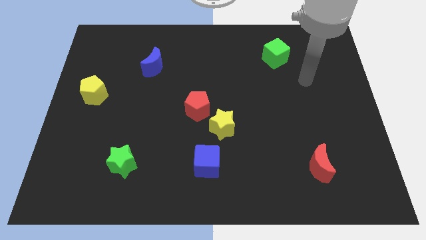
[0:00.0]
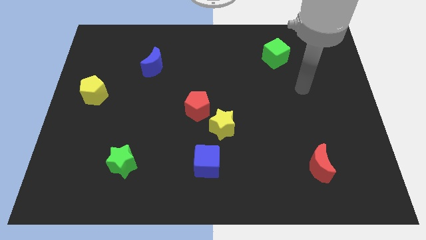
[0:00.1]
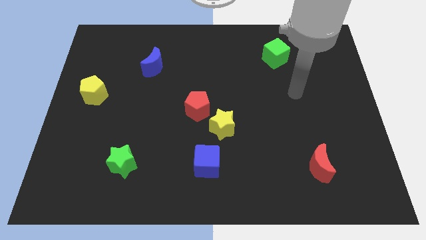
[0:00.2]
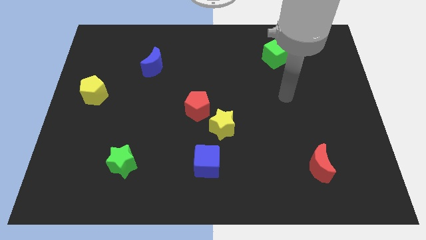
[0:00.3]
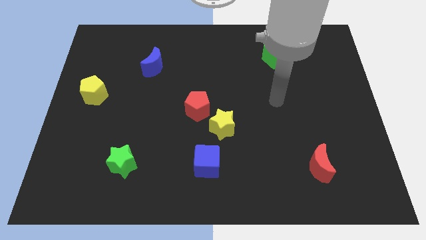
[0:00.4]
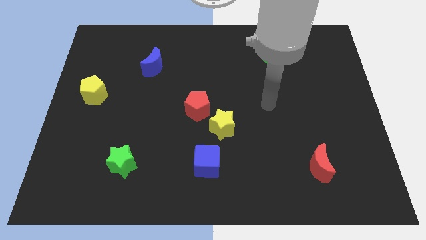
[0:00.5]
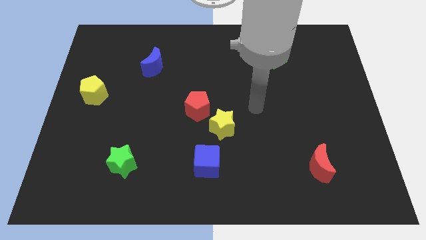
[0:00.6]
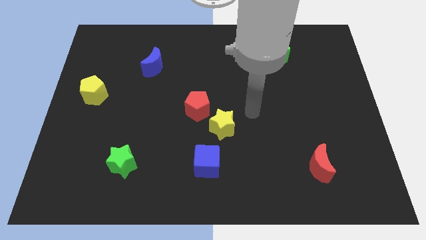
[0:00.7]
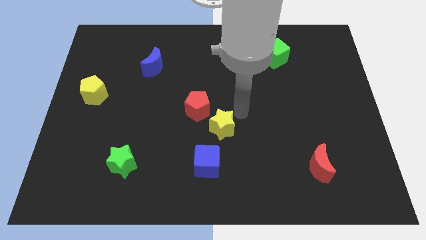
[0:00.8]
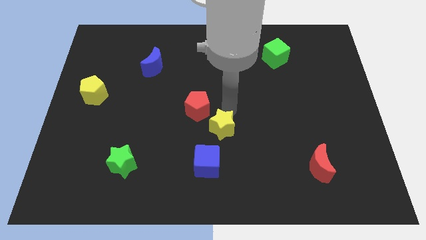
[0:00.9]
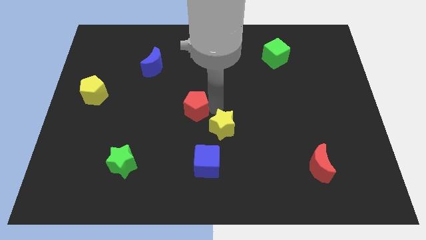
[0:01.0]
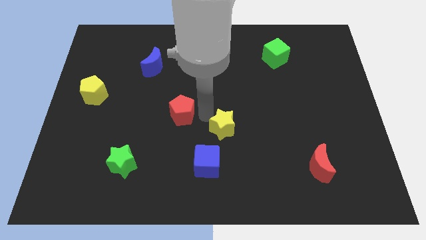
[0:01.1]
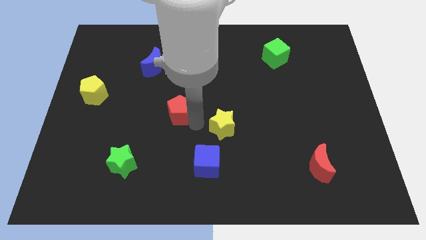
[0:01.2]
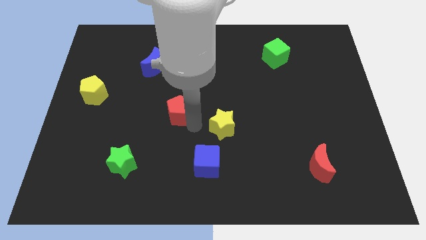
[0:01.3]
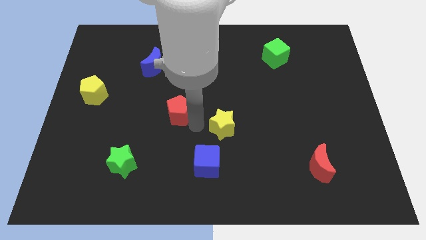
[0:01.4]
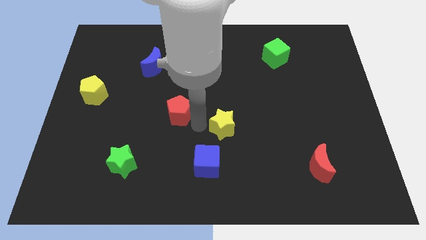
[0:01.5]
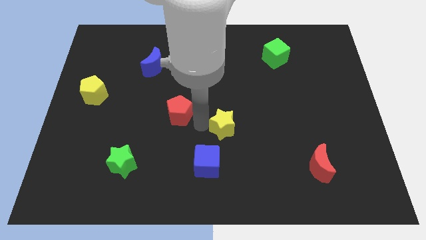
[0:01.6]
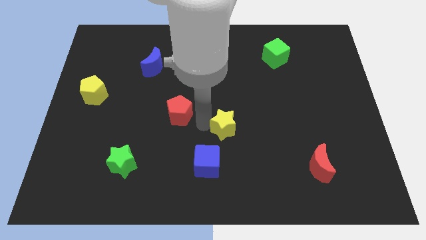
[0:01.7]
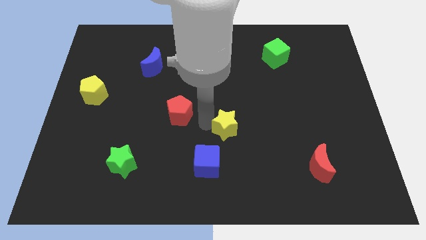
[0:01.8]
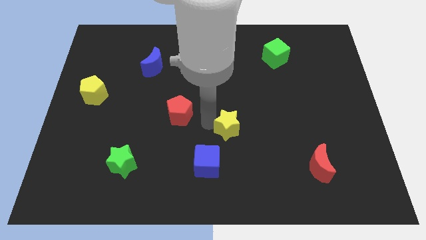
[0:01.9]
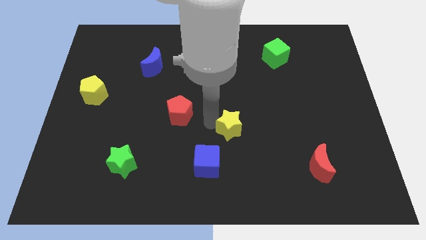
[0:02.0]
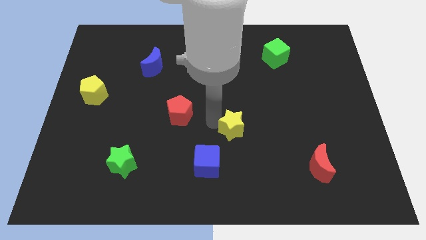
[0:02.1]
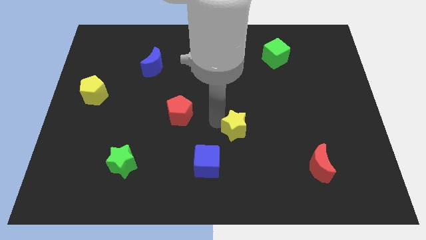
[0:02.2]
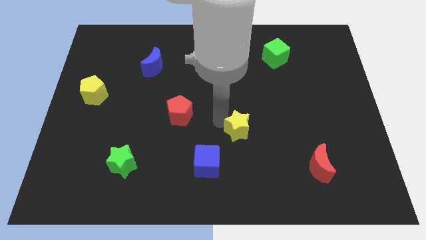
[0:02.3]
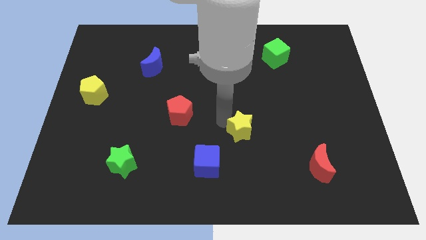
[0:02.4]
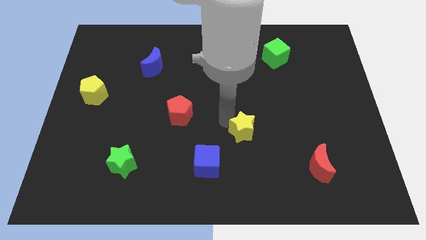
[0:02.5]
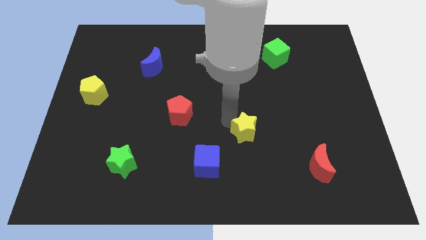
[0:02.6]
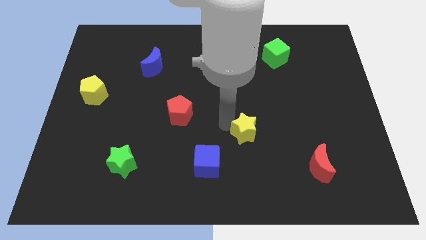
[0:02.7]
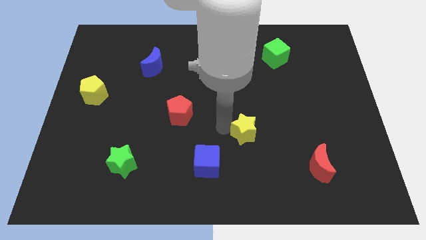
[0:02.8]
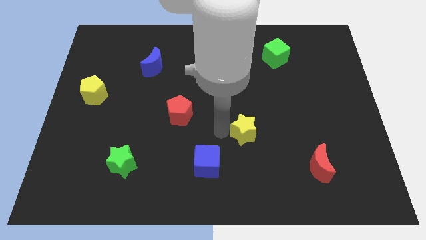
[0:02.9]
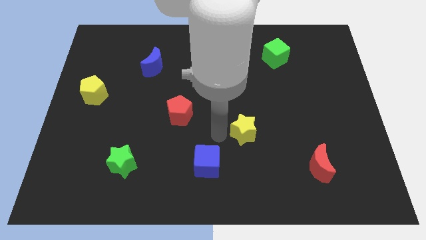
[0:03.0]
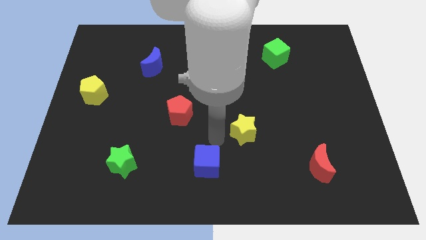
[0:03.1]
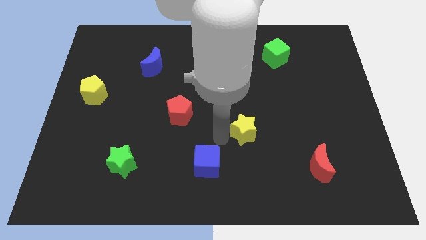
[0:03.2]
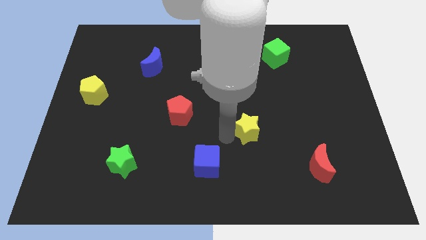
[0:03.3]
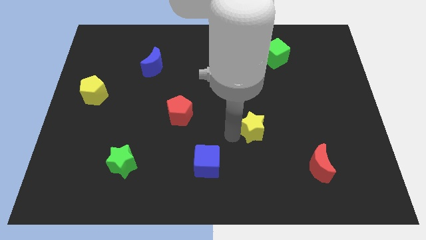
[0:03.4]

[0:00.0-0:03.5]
slightly slide the yellow star to the right

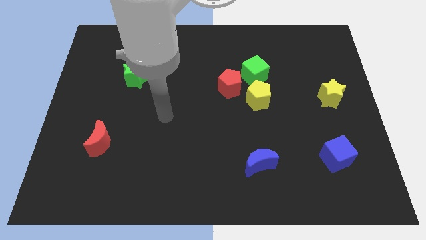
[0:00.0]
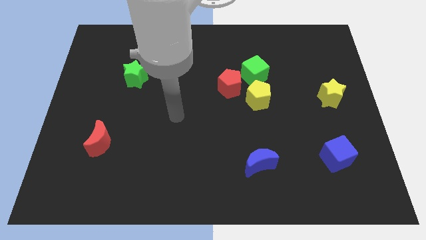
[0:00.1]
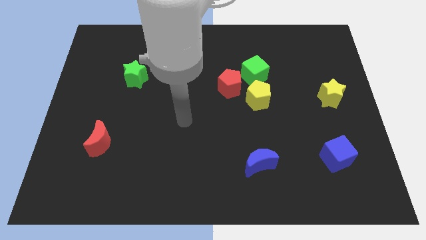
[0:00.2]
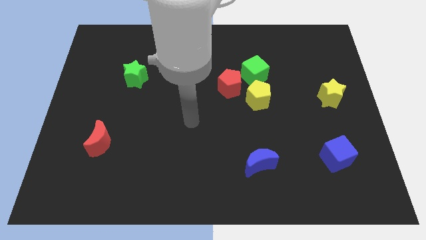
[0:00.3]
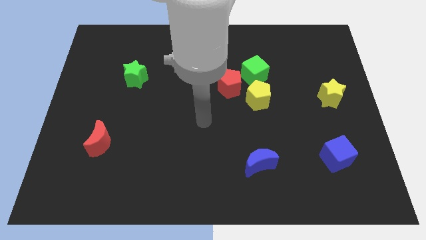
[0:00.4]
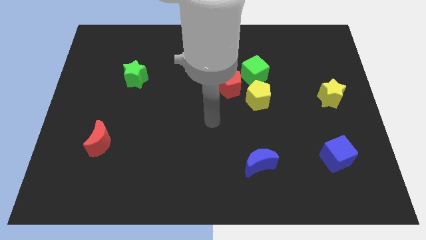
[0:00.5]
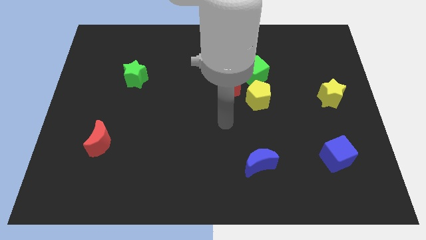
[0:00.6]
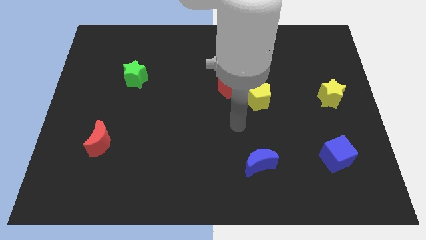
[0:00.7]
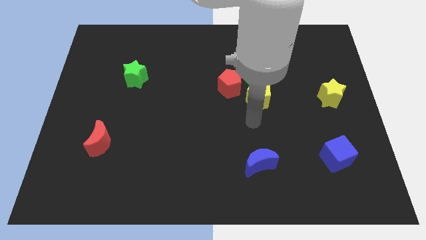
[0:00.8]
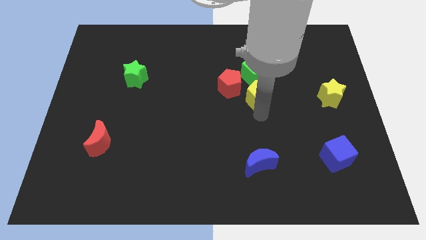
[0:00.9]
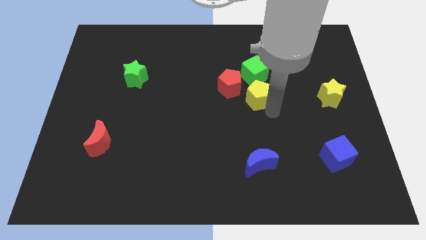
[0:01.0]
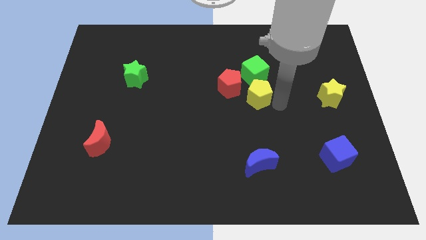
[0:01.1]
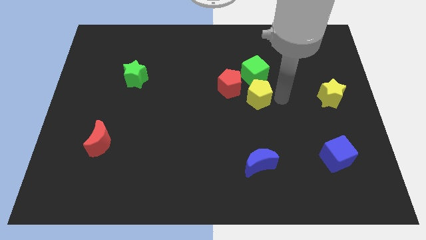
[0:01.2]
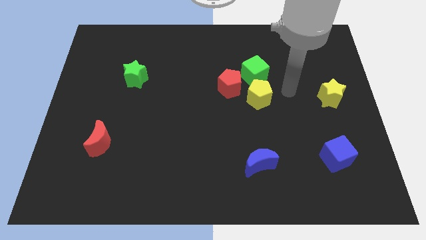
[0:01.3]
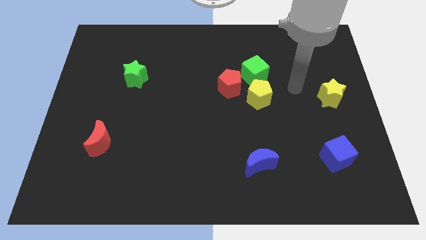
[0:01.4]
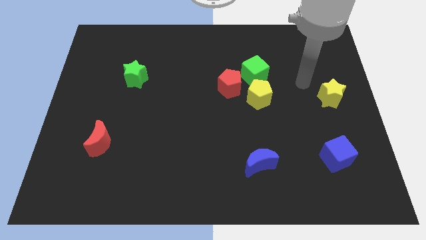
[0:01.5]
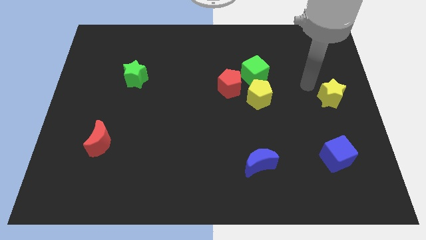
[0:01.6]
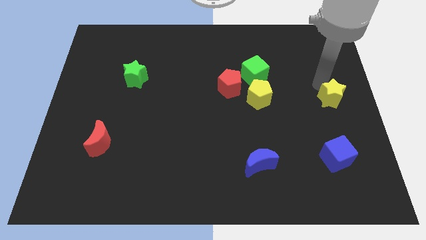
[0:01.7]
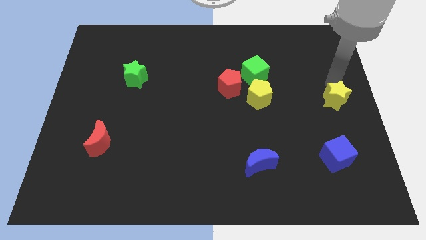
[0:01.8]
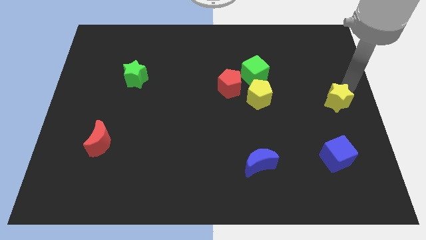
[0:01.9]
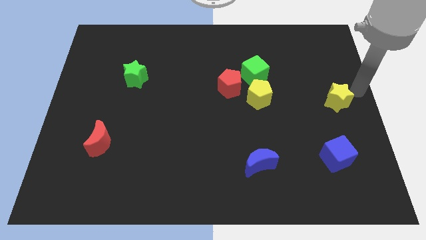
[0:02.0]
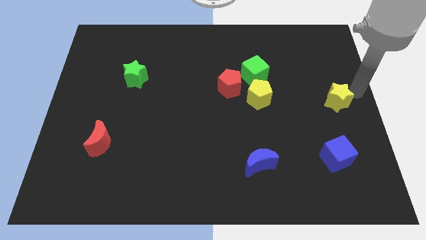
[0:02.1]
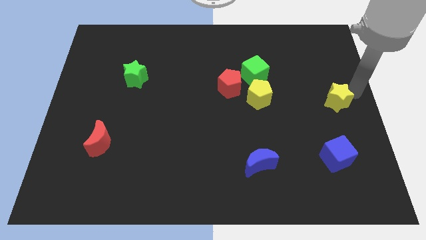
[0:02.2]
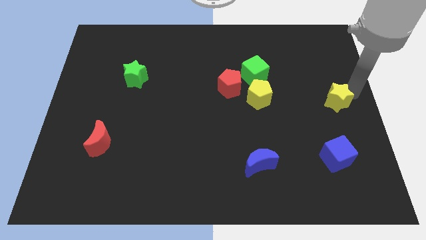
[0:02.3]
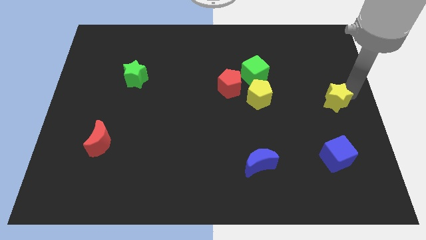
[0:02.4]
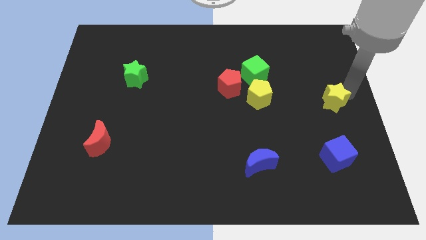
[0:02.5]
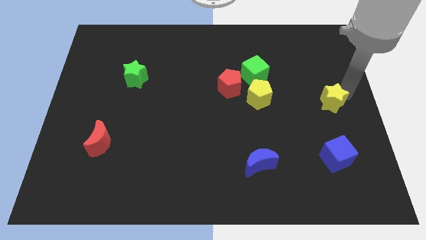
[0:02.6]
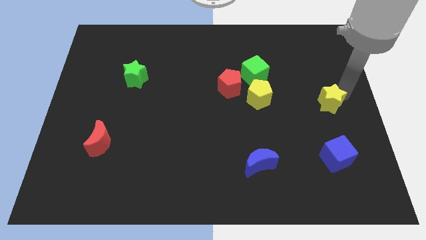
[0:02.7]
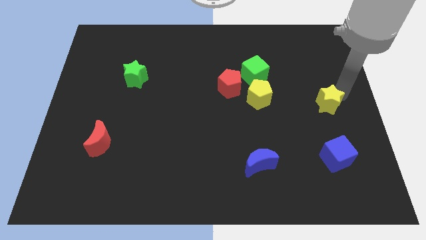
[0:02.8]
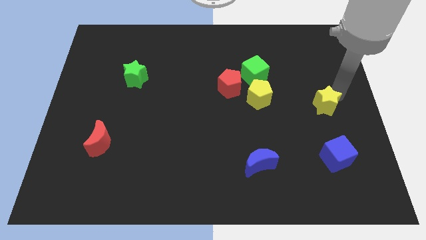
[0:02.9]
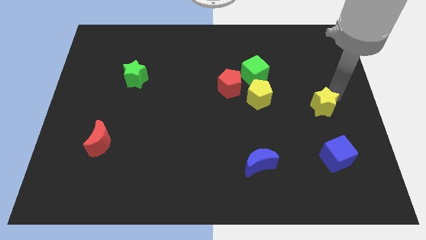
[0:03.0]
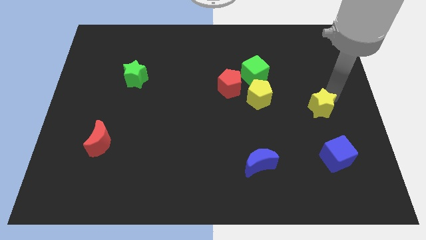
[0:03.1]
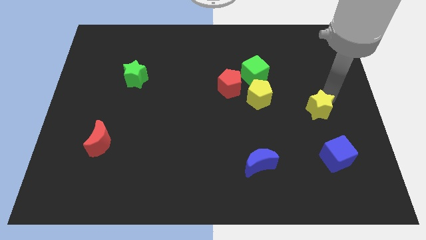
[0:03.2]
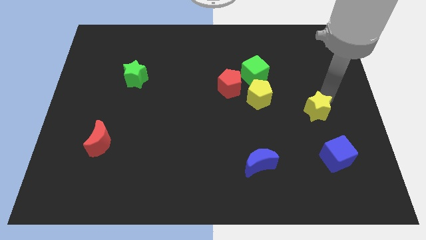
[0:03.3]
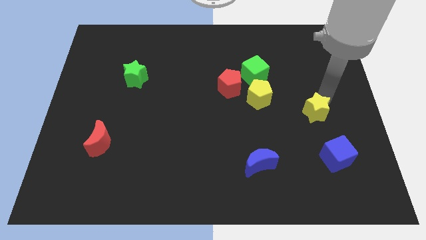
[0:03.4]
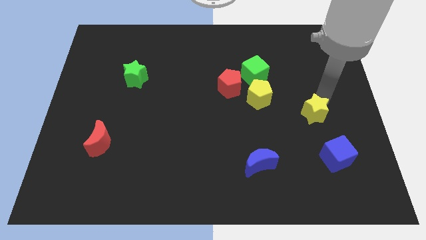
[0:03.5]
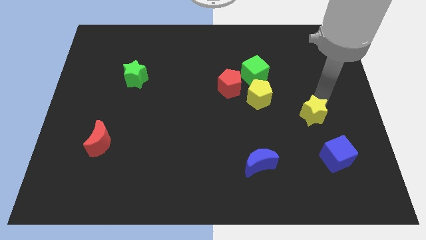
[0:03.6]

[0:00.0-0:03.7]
move the yellow star diagonally down and to the left a little bit

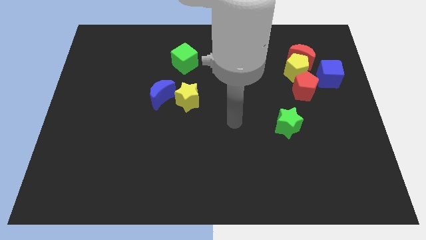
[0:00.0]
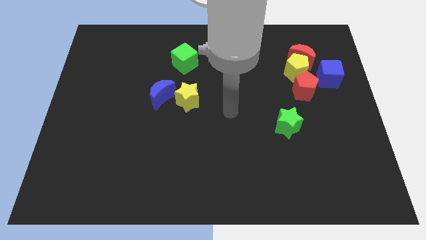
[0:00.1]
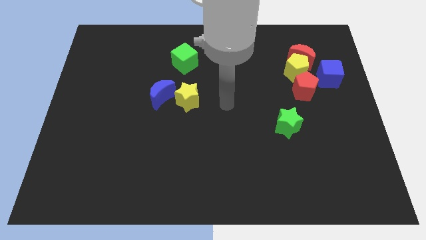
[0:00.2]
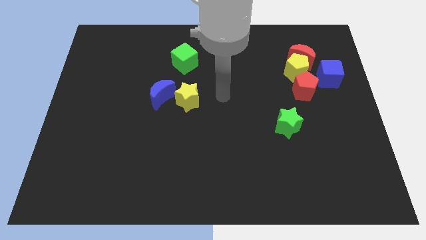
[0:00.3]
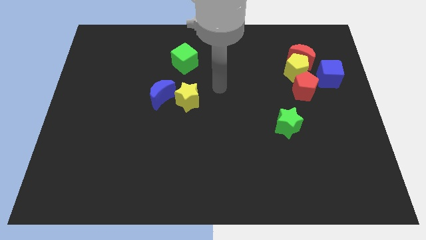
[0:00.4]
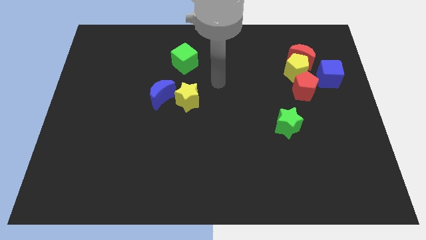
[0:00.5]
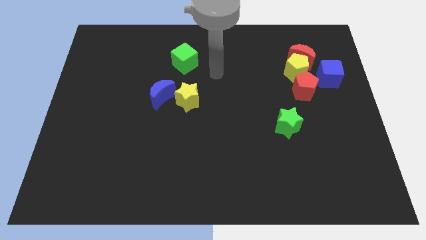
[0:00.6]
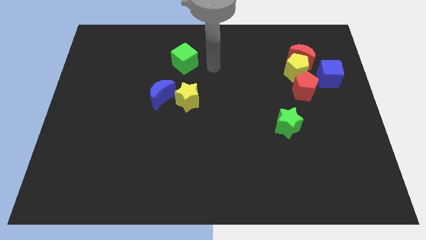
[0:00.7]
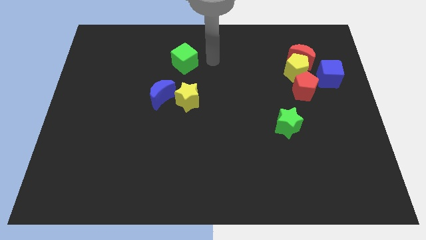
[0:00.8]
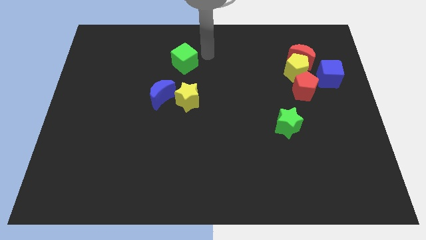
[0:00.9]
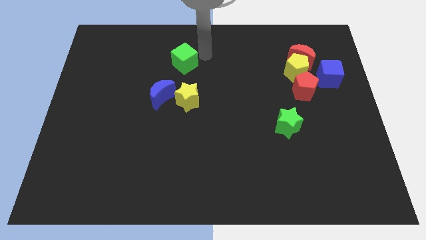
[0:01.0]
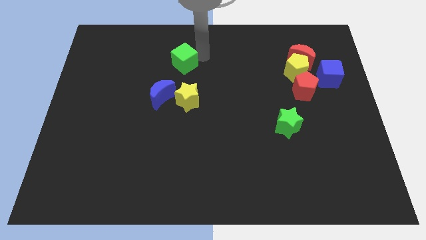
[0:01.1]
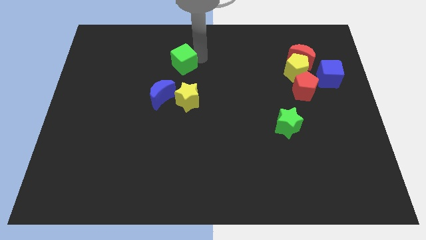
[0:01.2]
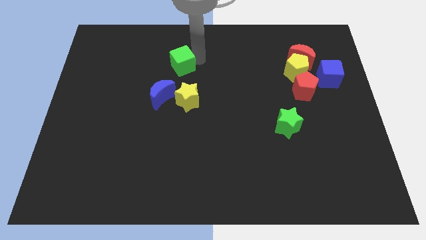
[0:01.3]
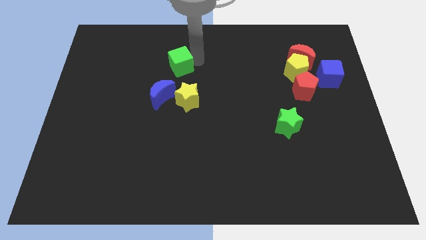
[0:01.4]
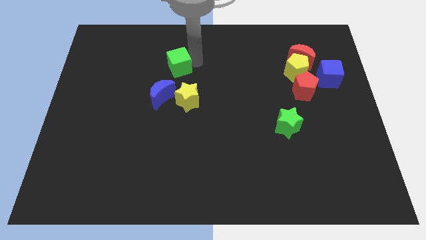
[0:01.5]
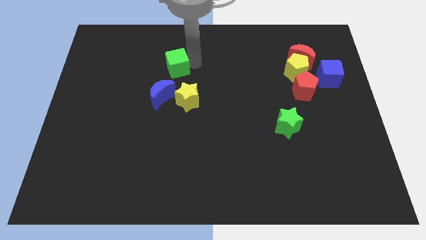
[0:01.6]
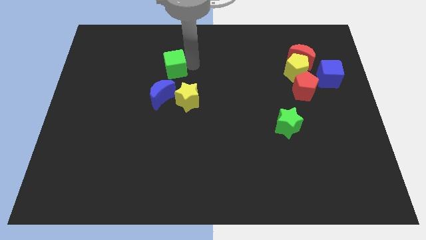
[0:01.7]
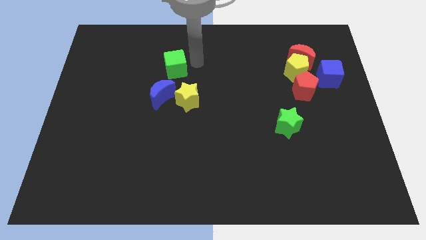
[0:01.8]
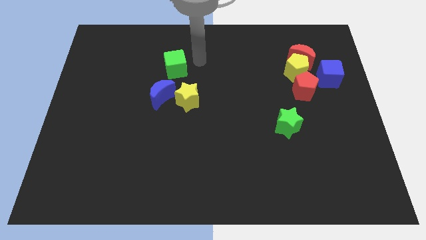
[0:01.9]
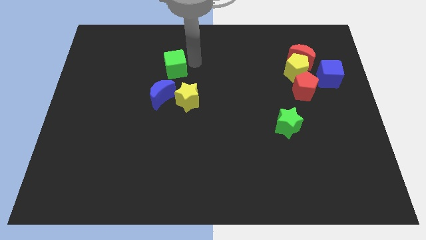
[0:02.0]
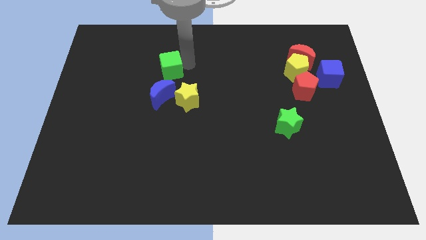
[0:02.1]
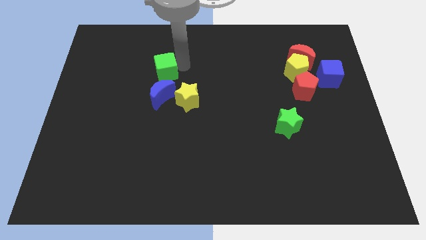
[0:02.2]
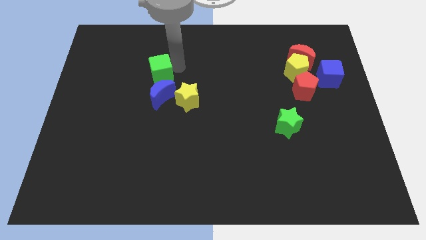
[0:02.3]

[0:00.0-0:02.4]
move the green cube a little bit down and to the left diagonally
